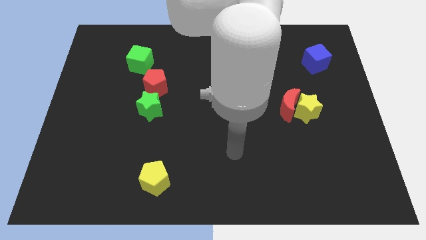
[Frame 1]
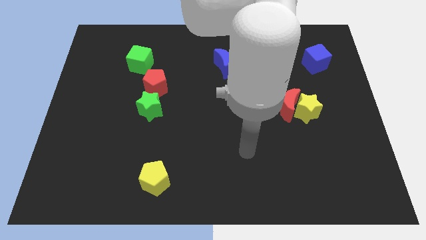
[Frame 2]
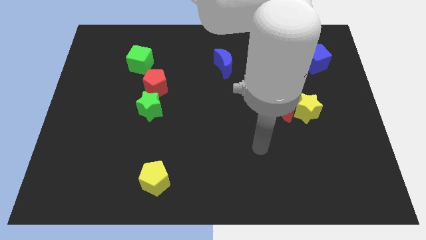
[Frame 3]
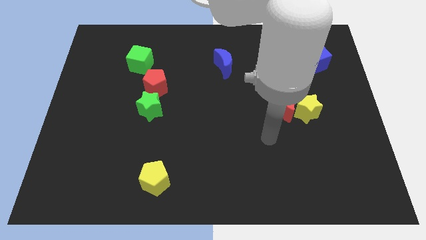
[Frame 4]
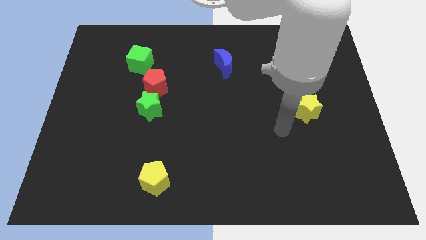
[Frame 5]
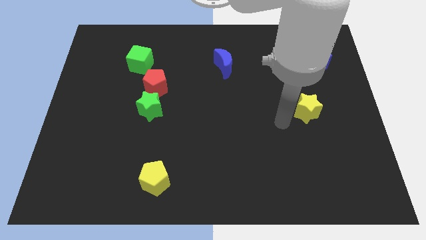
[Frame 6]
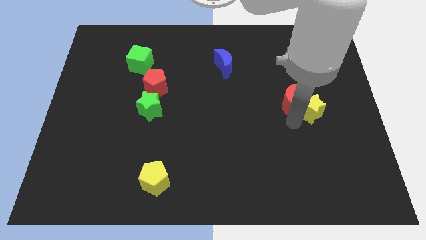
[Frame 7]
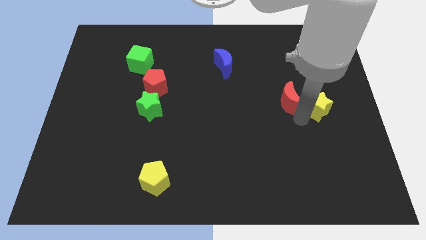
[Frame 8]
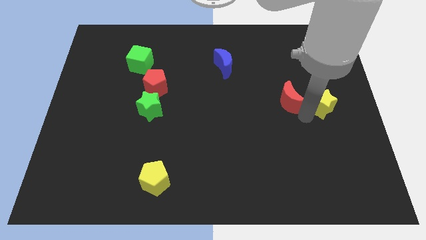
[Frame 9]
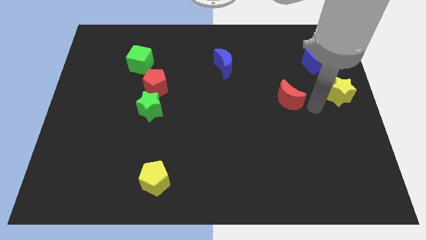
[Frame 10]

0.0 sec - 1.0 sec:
pull the red moon apart from the yellow star

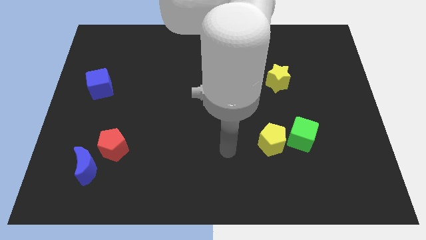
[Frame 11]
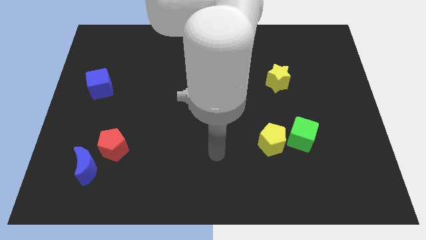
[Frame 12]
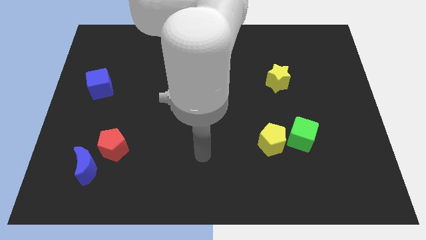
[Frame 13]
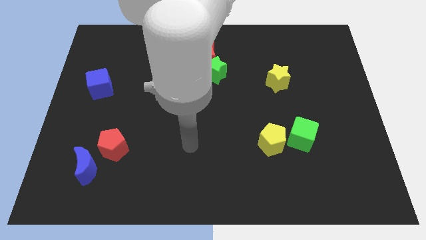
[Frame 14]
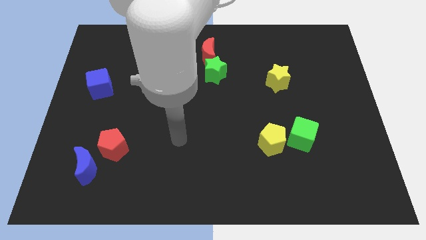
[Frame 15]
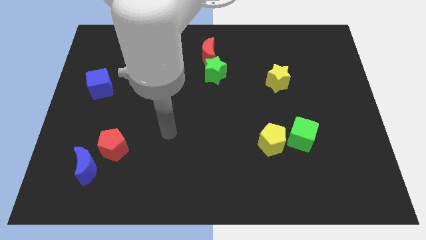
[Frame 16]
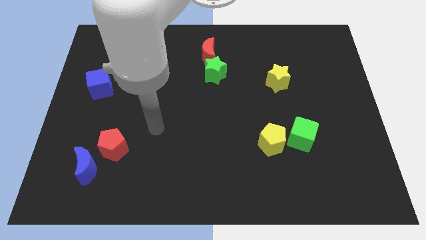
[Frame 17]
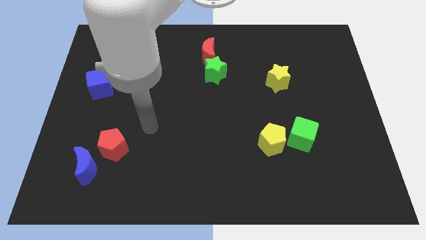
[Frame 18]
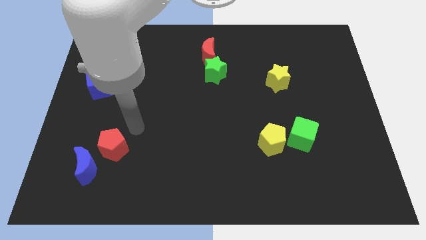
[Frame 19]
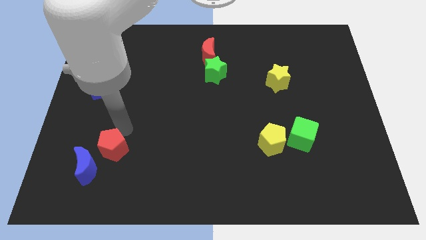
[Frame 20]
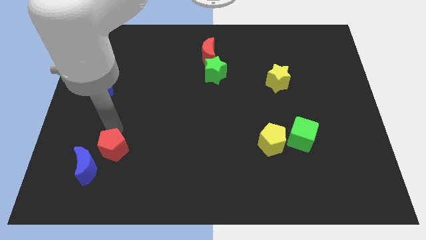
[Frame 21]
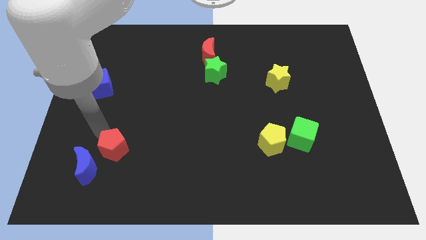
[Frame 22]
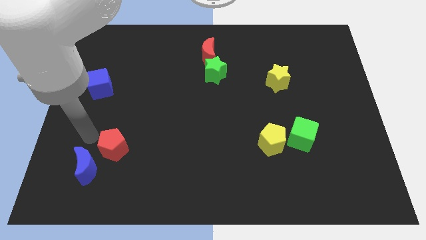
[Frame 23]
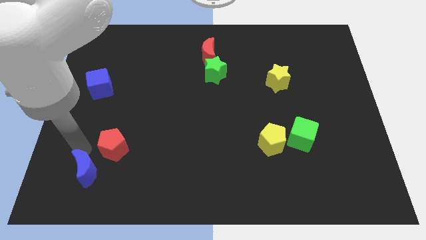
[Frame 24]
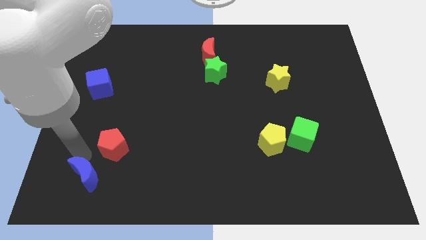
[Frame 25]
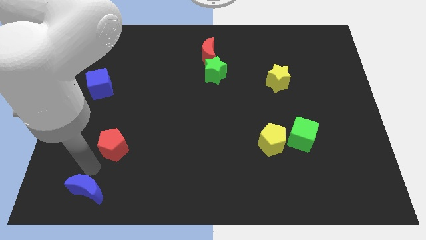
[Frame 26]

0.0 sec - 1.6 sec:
move the red pentagon away from the blue moon

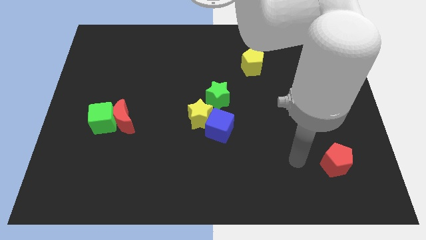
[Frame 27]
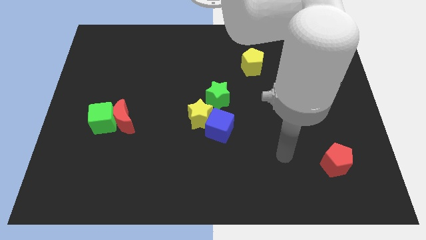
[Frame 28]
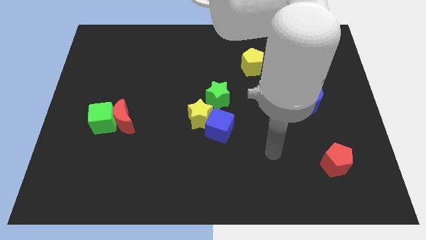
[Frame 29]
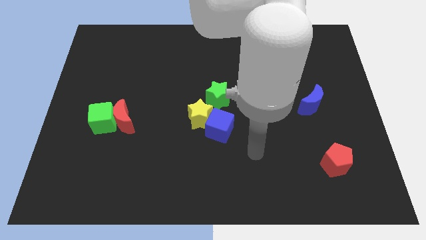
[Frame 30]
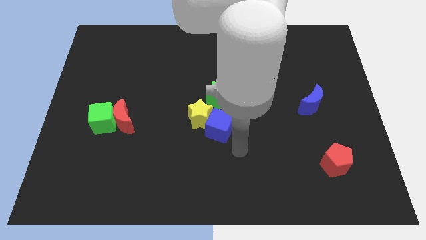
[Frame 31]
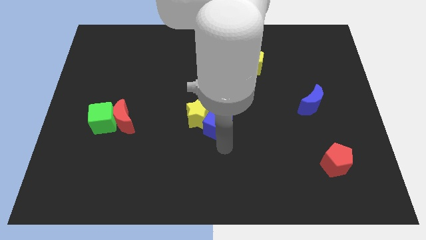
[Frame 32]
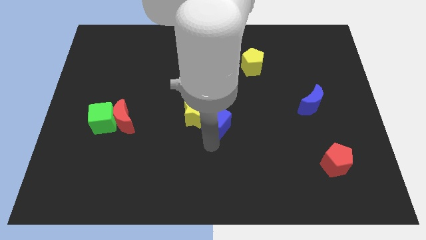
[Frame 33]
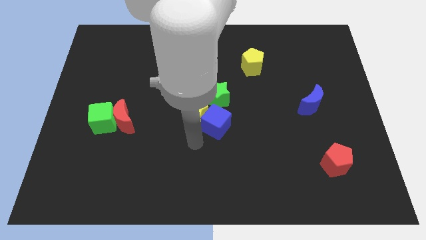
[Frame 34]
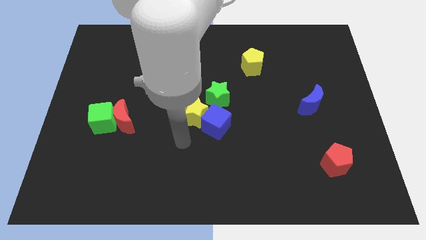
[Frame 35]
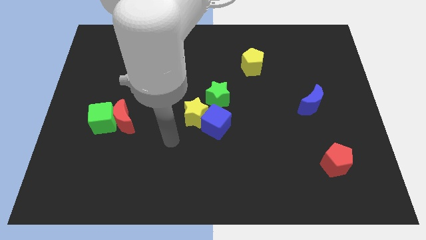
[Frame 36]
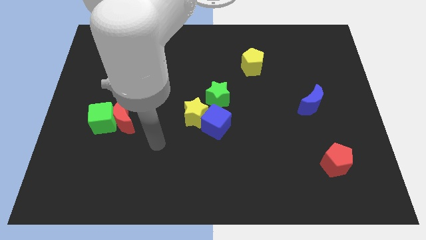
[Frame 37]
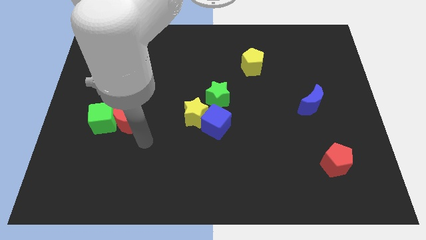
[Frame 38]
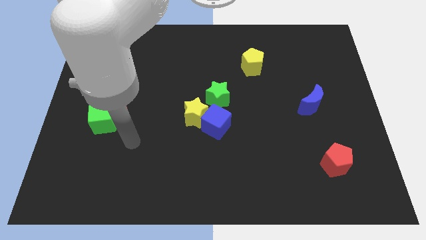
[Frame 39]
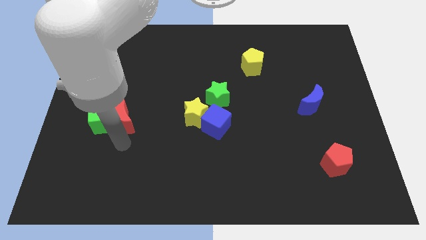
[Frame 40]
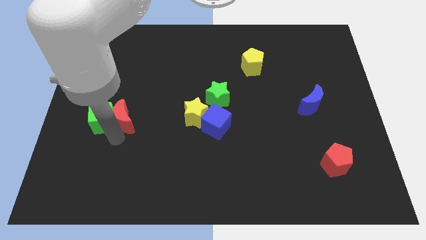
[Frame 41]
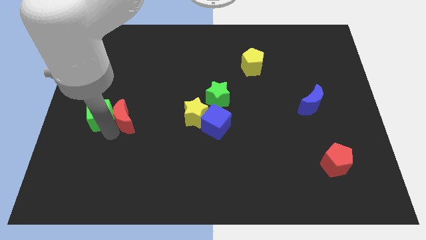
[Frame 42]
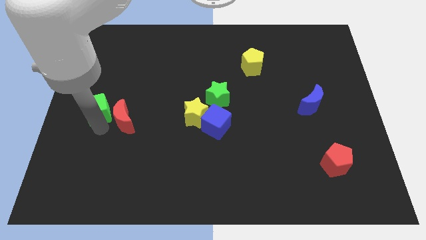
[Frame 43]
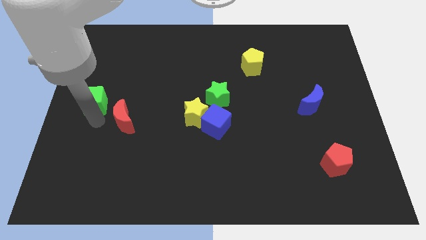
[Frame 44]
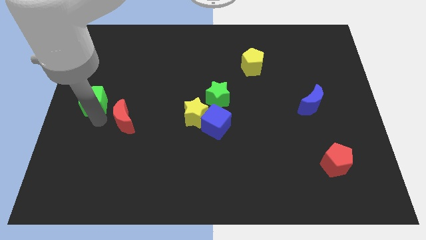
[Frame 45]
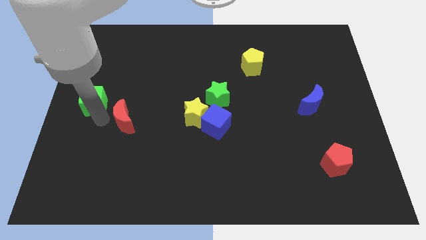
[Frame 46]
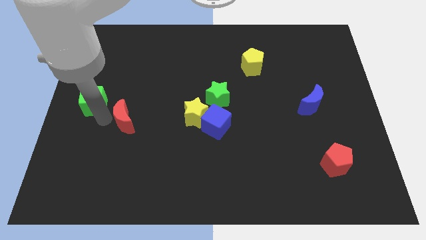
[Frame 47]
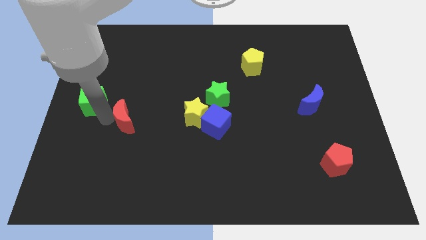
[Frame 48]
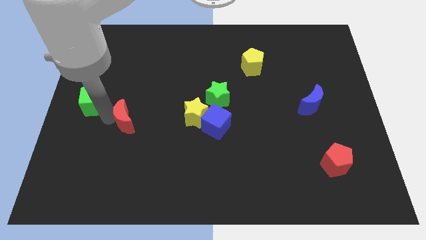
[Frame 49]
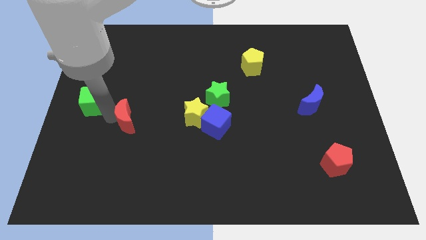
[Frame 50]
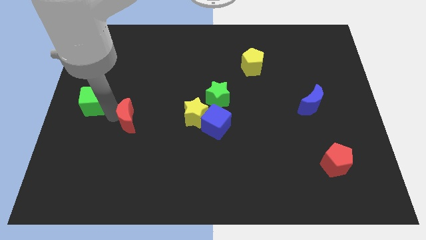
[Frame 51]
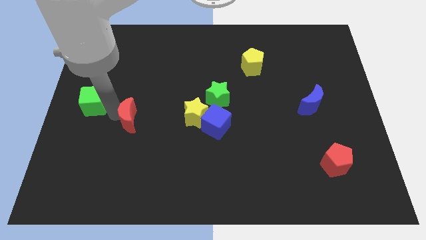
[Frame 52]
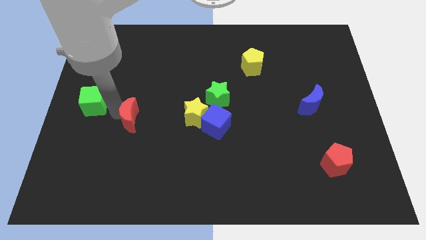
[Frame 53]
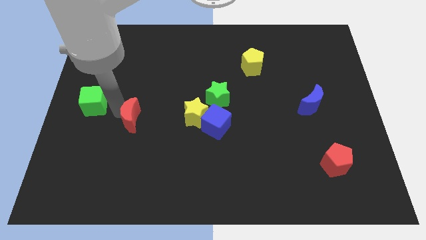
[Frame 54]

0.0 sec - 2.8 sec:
move the red moon away from the green cube

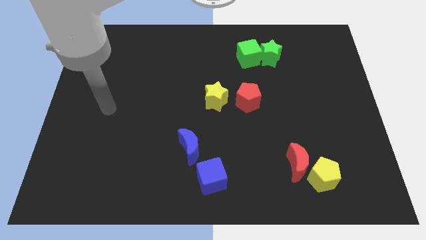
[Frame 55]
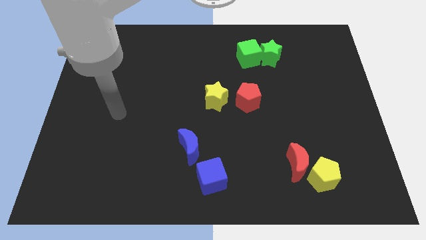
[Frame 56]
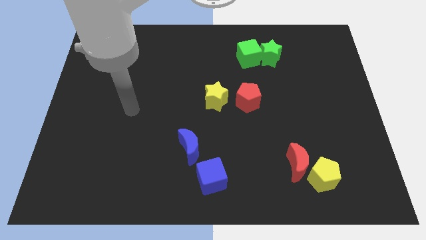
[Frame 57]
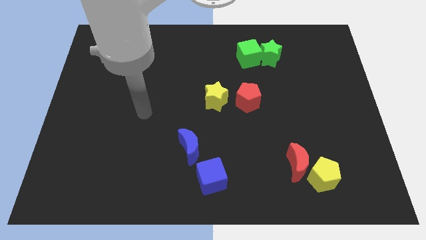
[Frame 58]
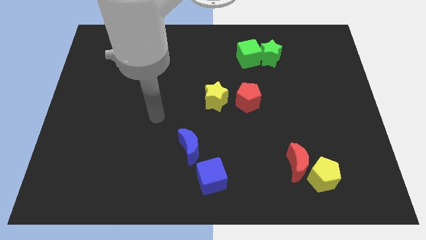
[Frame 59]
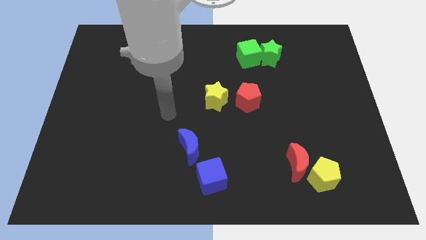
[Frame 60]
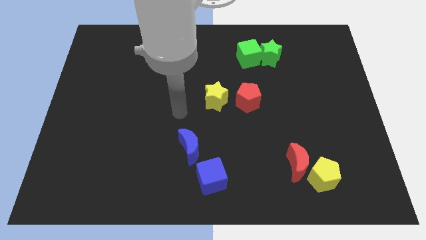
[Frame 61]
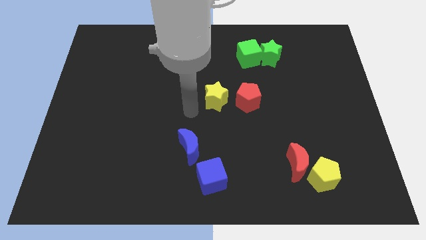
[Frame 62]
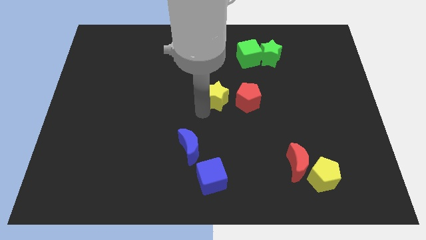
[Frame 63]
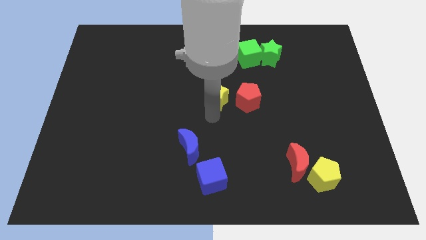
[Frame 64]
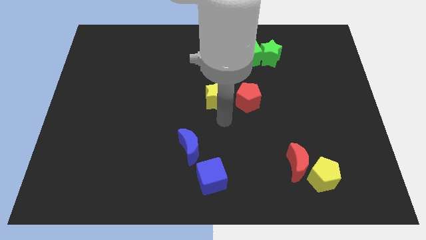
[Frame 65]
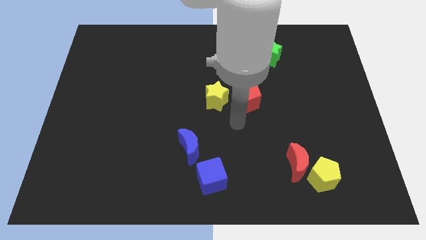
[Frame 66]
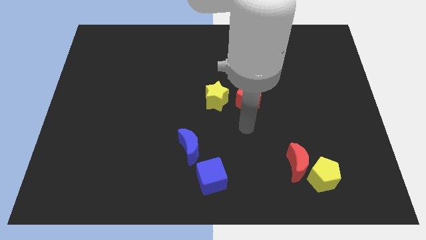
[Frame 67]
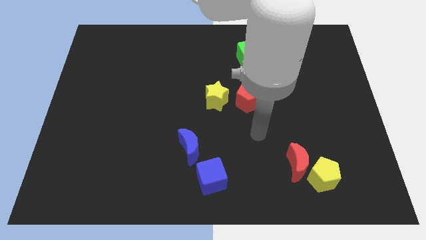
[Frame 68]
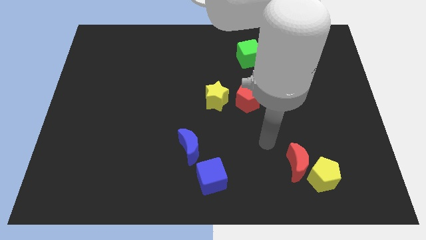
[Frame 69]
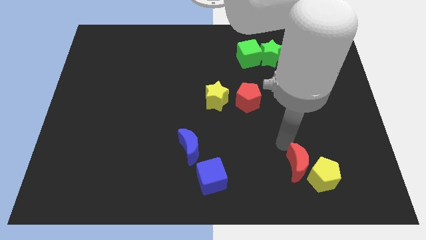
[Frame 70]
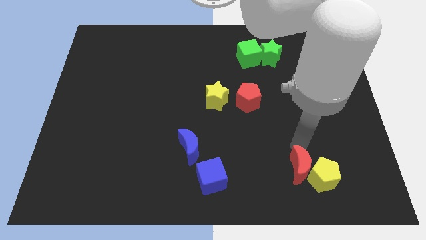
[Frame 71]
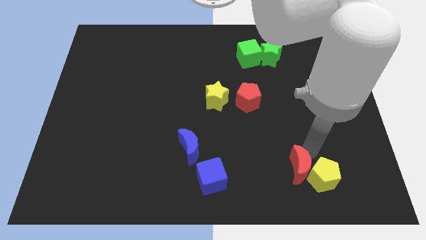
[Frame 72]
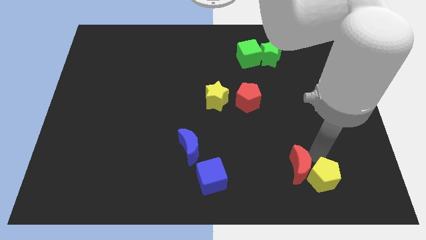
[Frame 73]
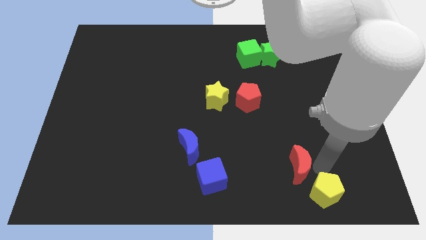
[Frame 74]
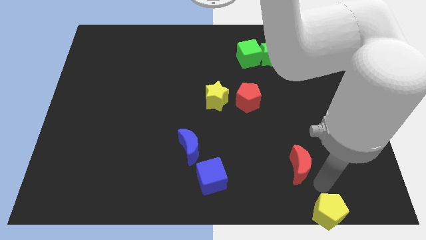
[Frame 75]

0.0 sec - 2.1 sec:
separate the red moon from the yellow pentagon

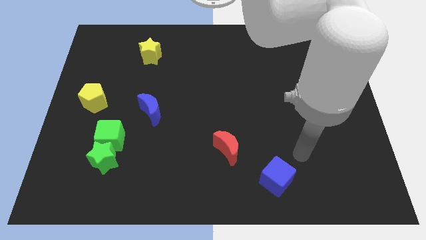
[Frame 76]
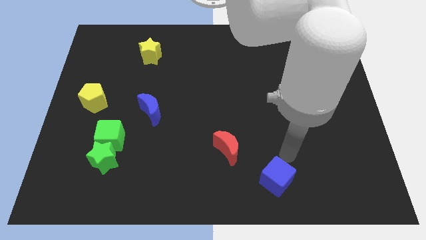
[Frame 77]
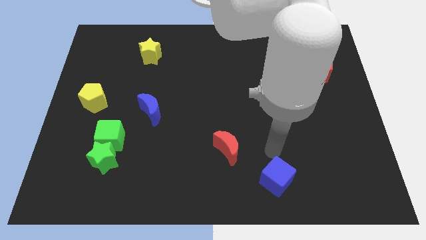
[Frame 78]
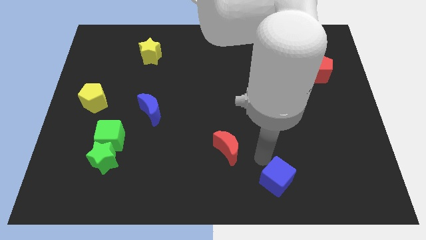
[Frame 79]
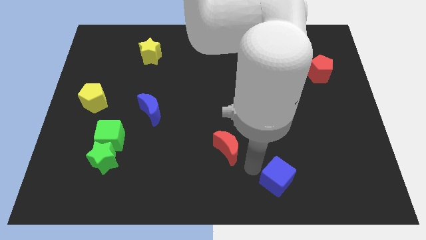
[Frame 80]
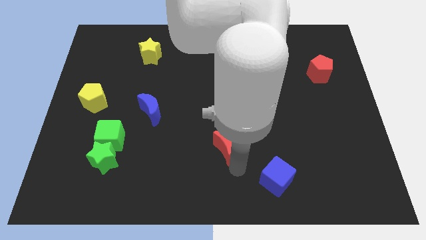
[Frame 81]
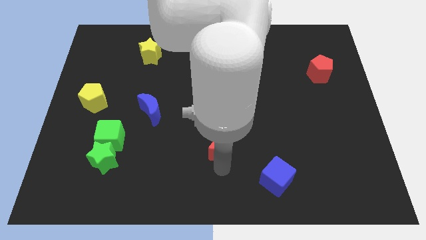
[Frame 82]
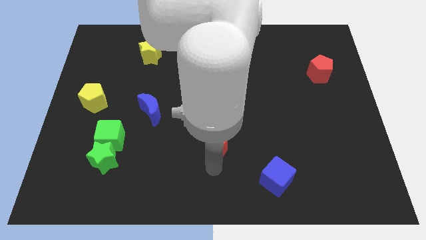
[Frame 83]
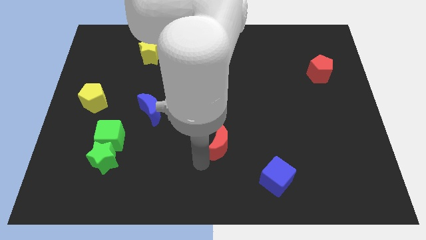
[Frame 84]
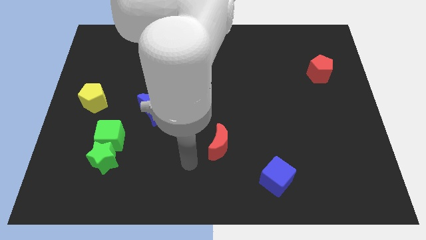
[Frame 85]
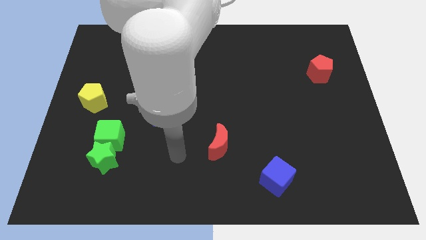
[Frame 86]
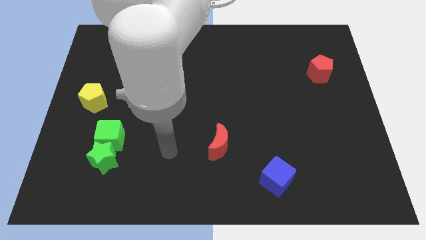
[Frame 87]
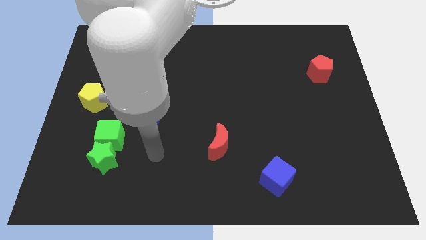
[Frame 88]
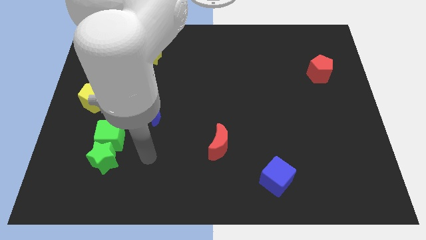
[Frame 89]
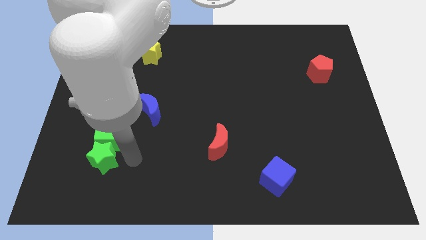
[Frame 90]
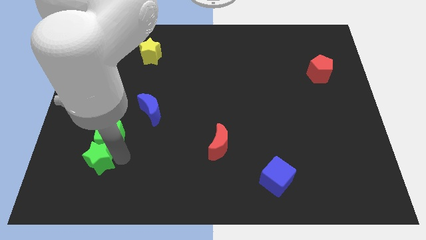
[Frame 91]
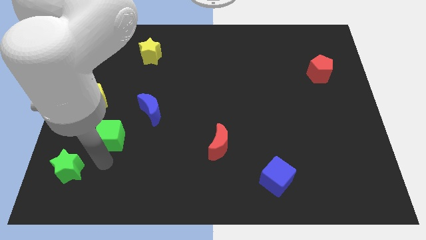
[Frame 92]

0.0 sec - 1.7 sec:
pull the green cube apart from the green star
